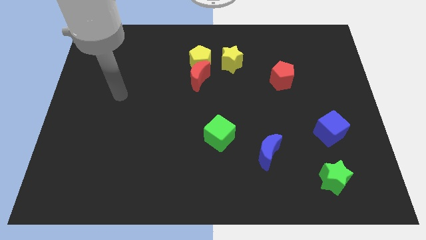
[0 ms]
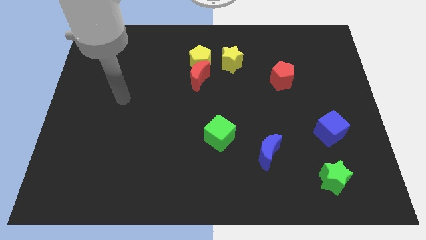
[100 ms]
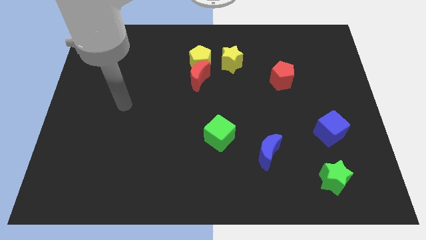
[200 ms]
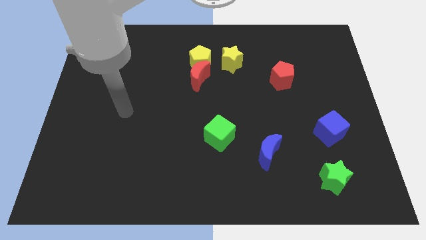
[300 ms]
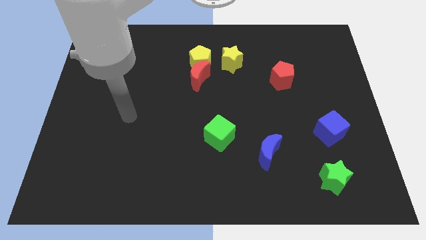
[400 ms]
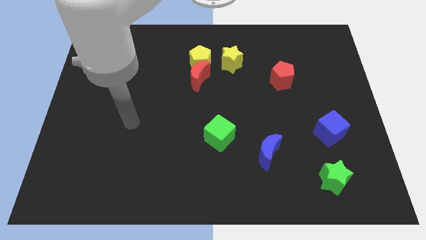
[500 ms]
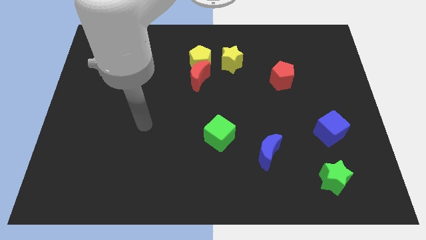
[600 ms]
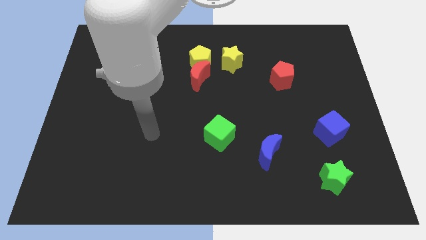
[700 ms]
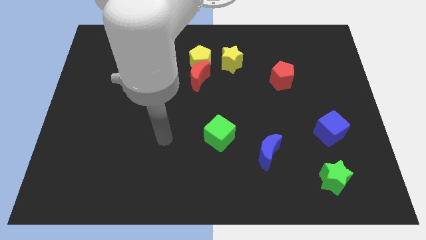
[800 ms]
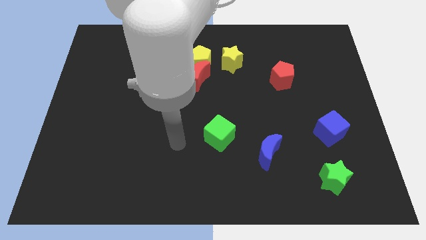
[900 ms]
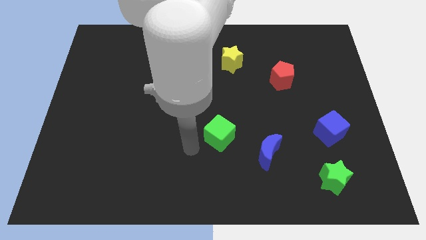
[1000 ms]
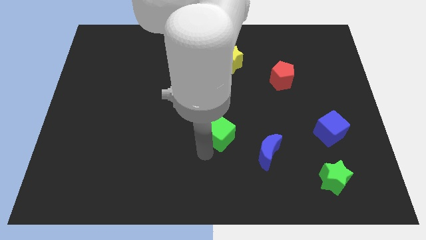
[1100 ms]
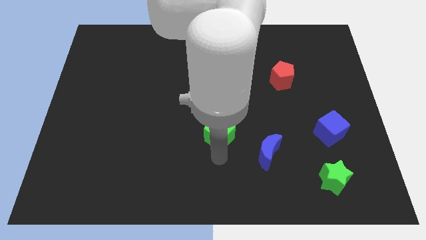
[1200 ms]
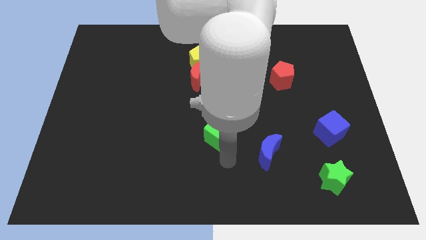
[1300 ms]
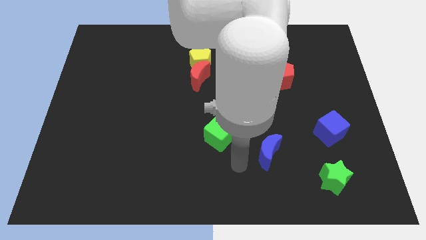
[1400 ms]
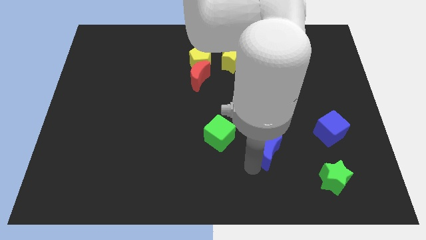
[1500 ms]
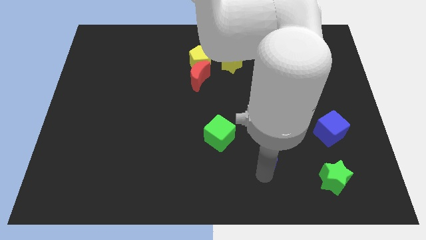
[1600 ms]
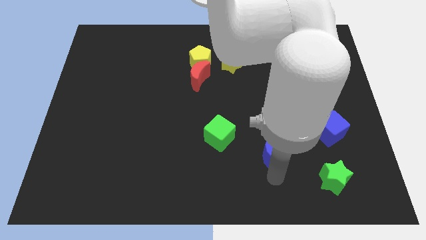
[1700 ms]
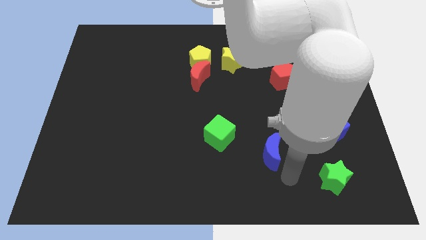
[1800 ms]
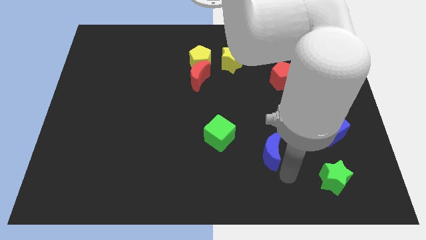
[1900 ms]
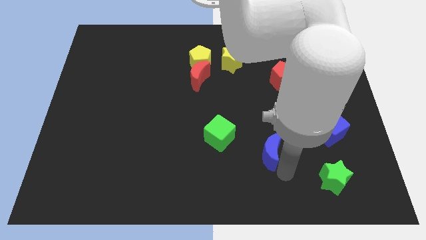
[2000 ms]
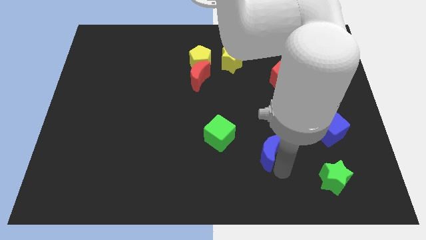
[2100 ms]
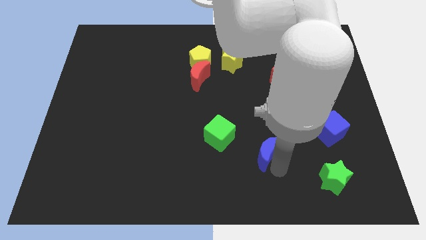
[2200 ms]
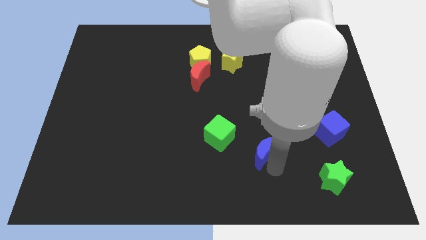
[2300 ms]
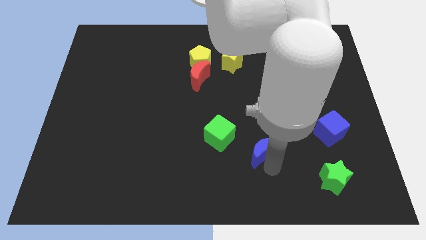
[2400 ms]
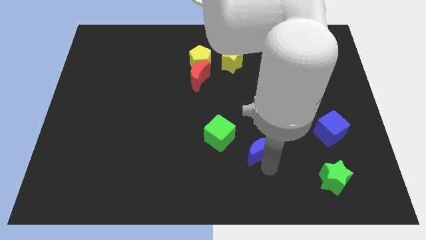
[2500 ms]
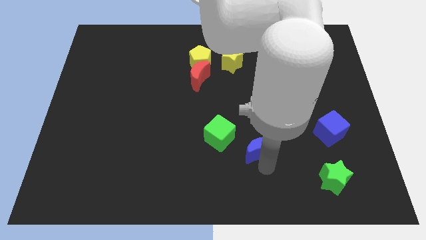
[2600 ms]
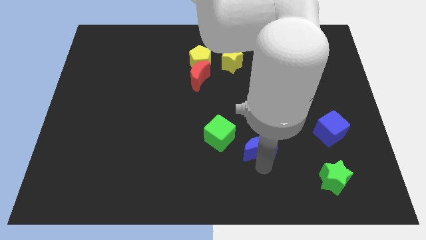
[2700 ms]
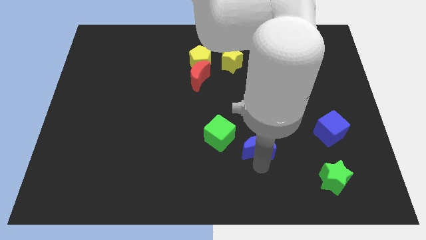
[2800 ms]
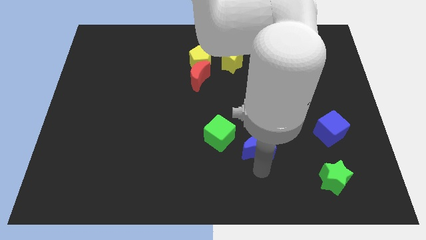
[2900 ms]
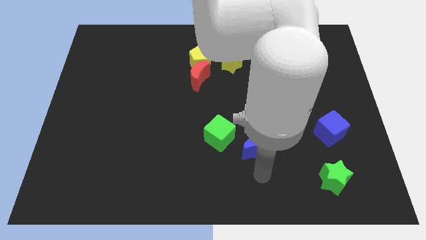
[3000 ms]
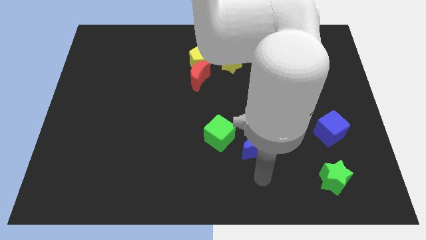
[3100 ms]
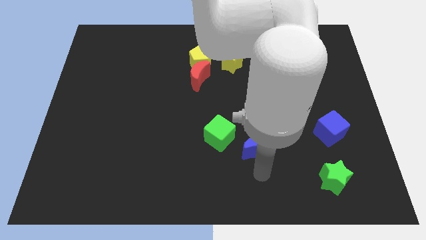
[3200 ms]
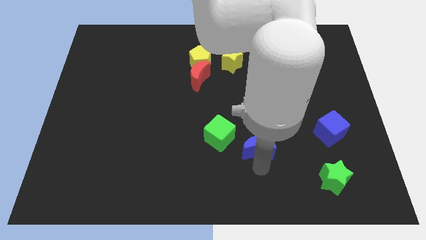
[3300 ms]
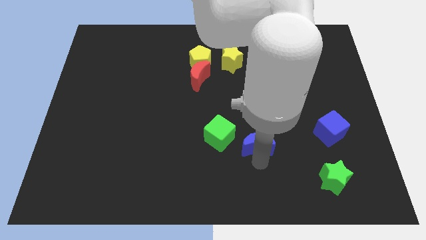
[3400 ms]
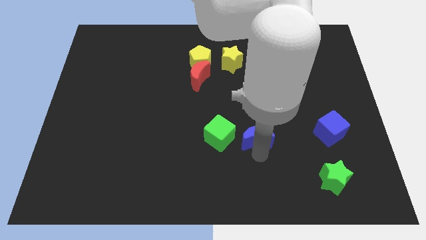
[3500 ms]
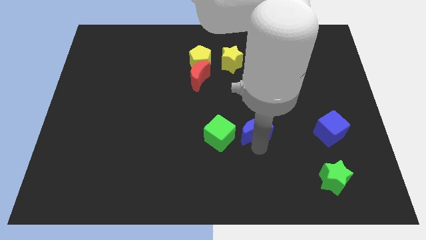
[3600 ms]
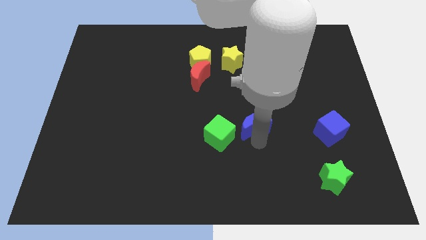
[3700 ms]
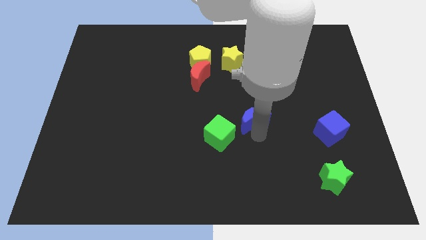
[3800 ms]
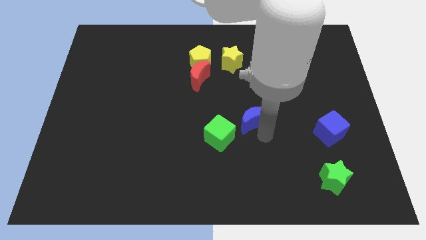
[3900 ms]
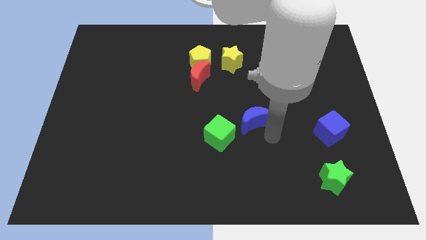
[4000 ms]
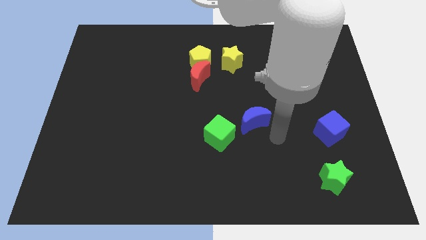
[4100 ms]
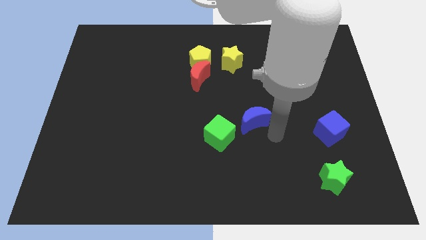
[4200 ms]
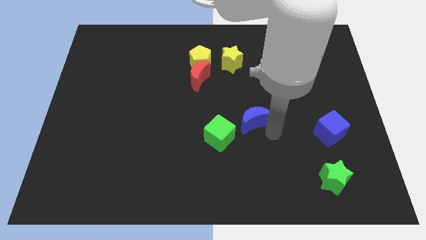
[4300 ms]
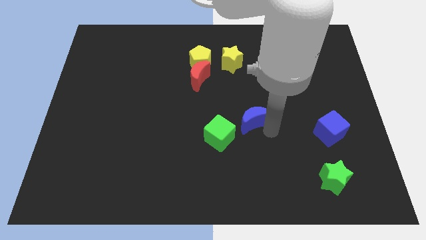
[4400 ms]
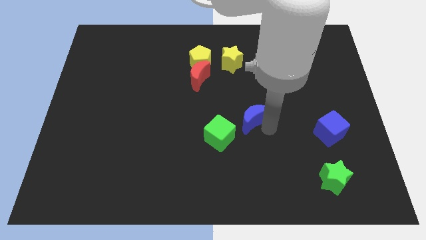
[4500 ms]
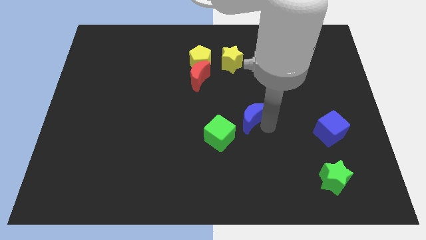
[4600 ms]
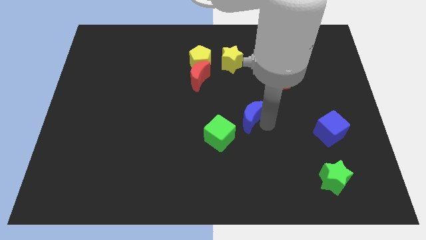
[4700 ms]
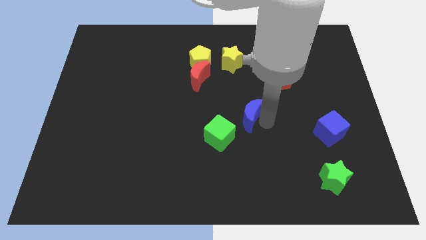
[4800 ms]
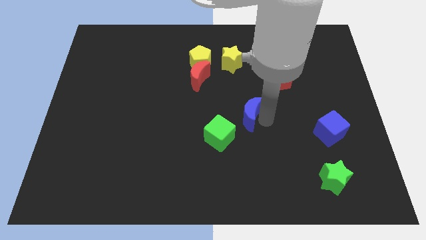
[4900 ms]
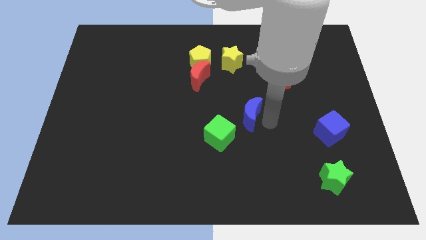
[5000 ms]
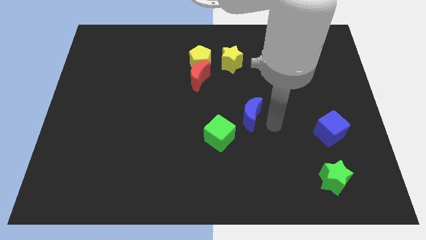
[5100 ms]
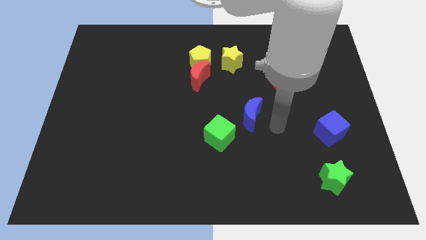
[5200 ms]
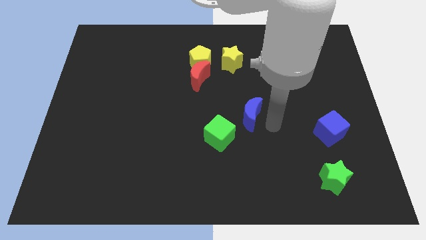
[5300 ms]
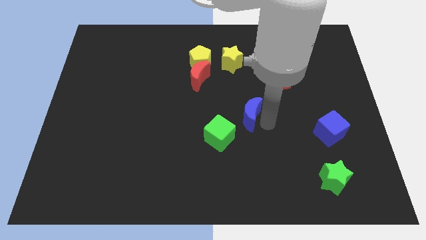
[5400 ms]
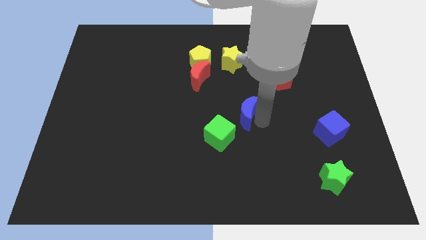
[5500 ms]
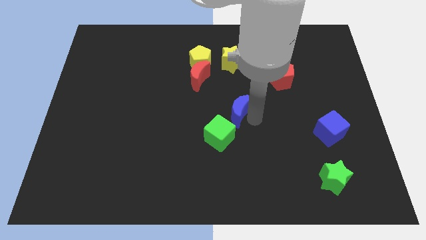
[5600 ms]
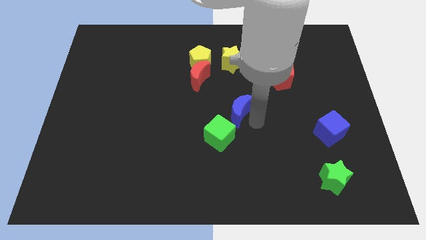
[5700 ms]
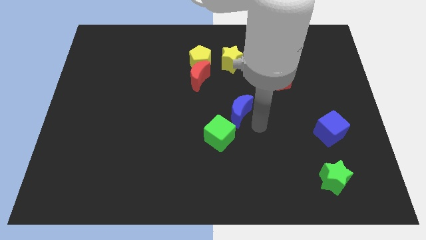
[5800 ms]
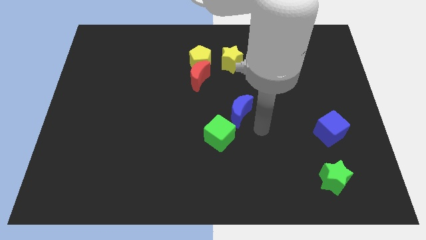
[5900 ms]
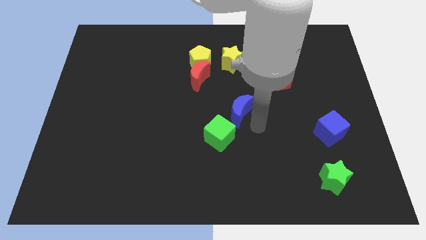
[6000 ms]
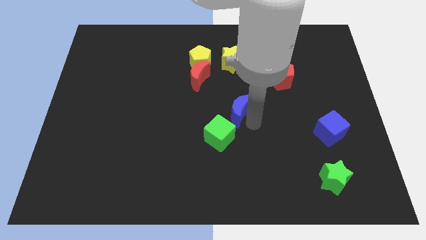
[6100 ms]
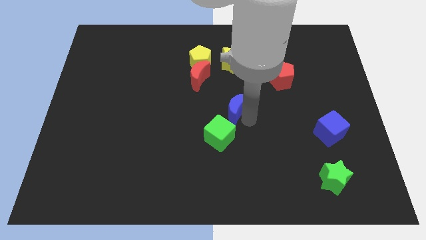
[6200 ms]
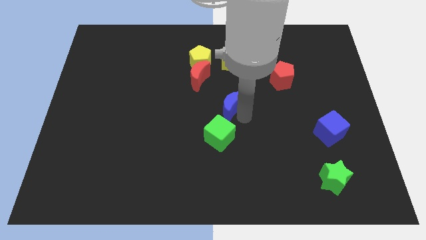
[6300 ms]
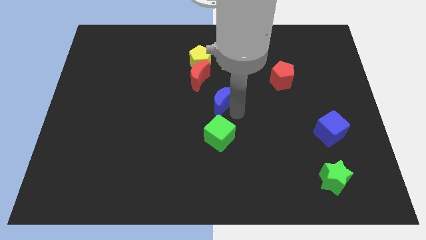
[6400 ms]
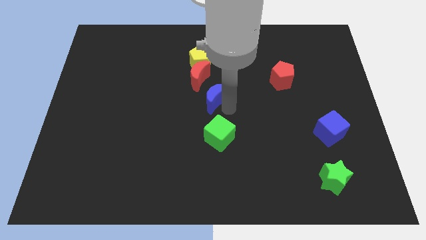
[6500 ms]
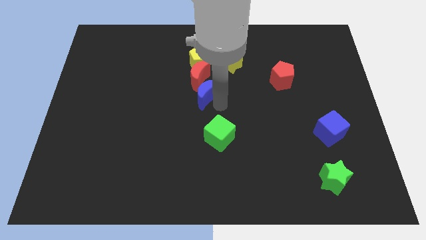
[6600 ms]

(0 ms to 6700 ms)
slide the blue moon to the red moon

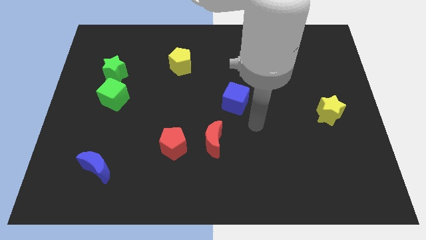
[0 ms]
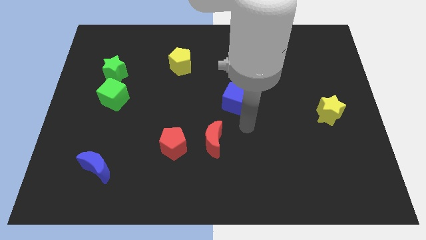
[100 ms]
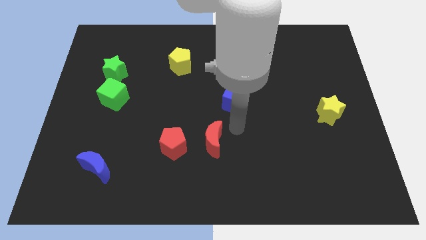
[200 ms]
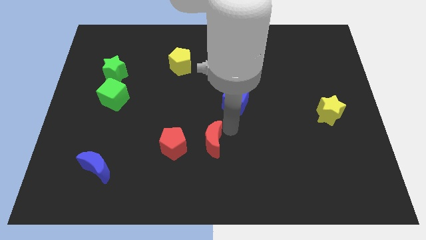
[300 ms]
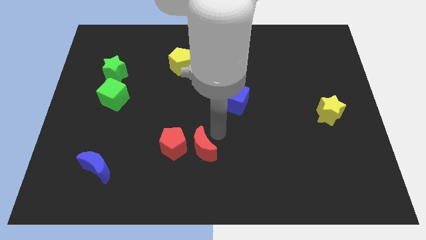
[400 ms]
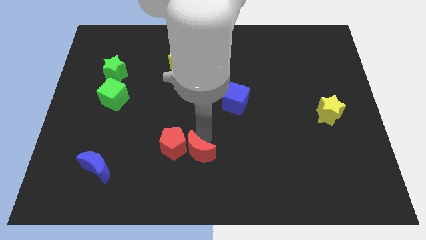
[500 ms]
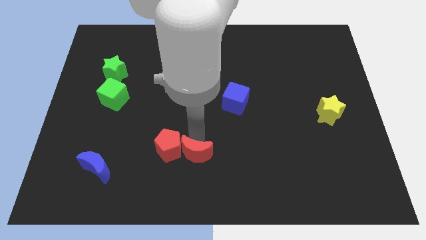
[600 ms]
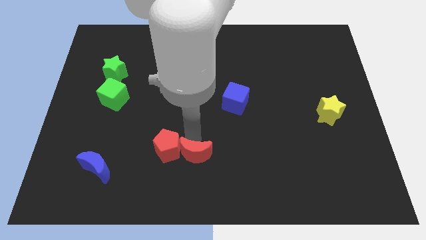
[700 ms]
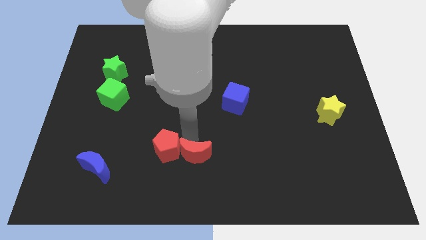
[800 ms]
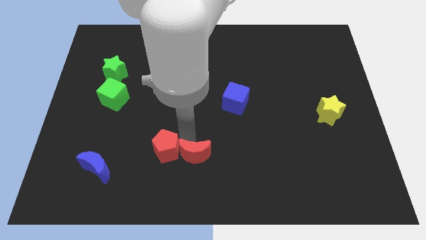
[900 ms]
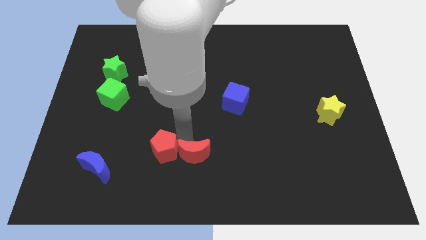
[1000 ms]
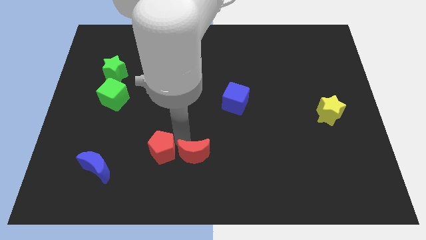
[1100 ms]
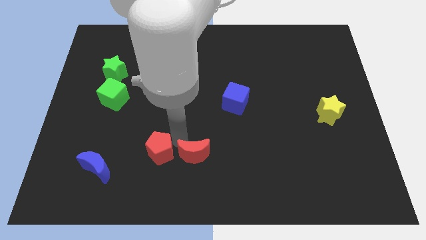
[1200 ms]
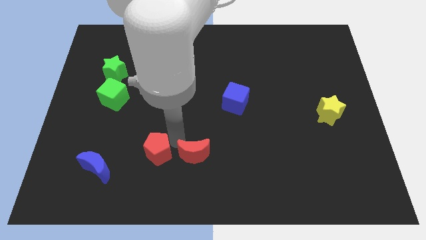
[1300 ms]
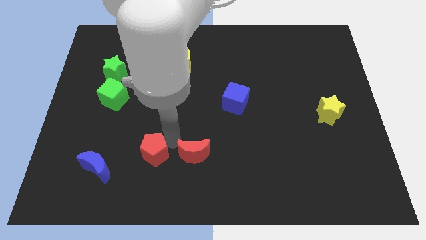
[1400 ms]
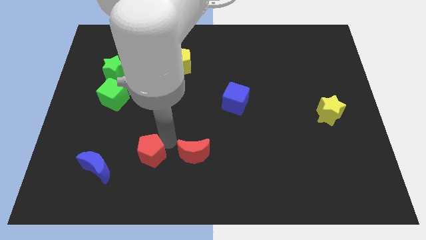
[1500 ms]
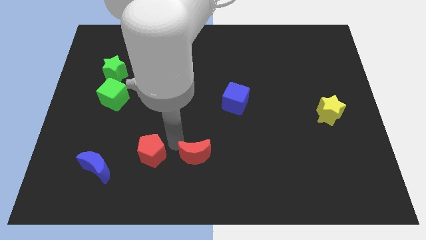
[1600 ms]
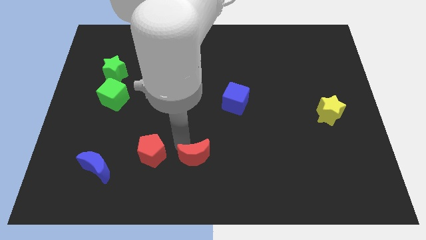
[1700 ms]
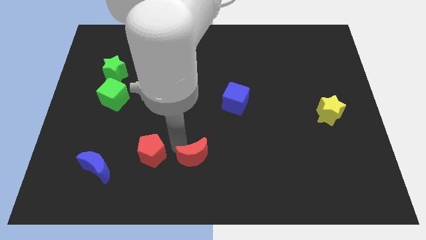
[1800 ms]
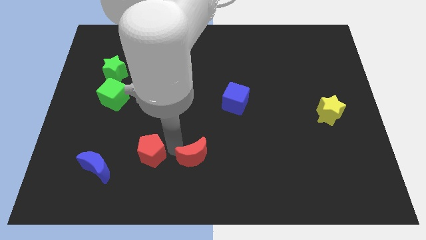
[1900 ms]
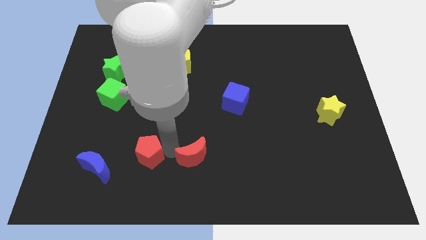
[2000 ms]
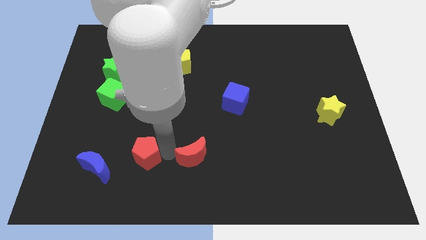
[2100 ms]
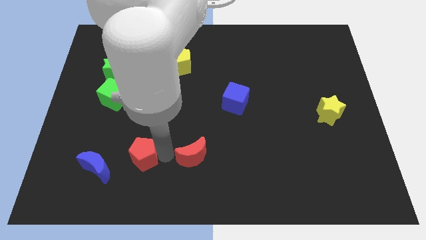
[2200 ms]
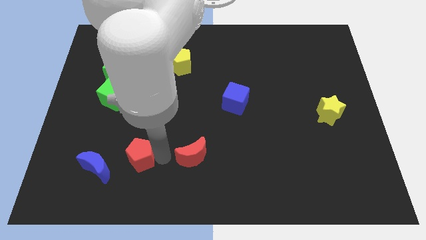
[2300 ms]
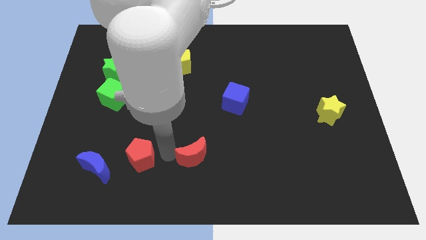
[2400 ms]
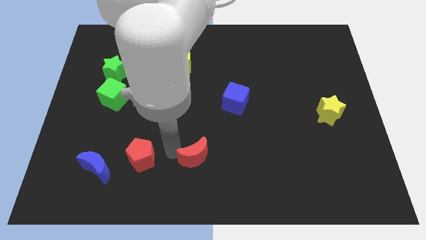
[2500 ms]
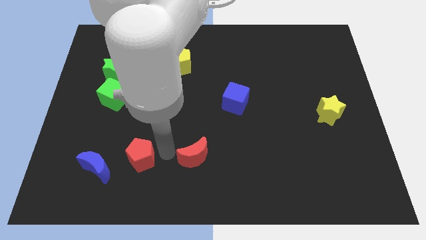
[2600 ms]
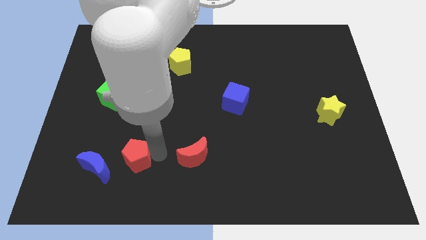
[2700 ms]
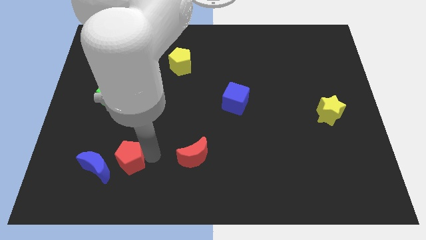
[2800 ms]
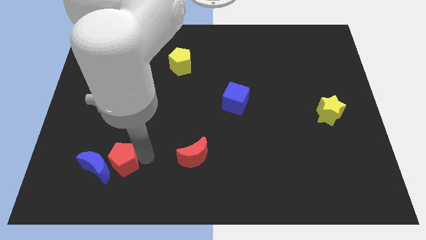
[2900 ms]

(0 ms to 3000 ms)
slide the red pentagon close to the blue moon
